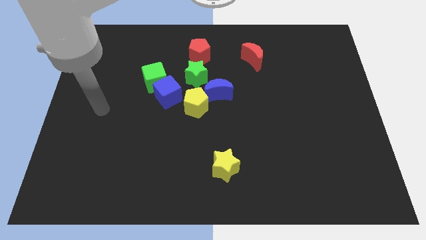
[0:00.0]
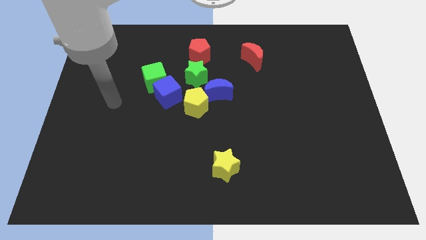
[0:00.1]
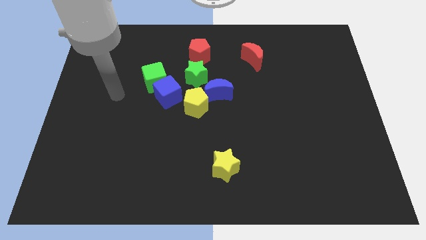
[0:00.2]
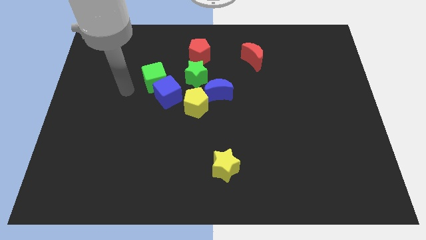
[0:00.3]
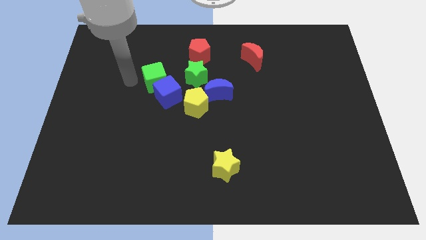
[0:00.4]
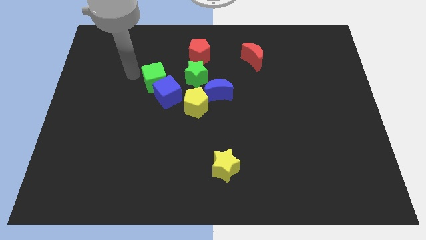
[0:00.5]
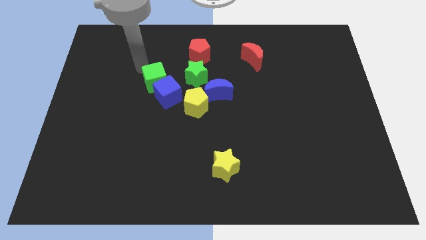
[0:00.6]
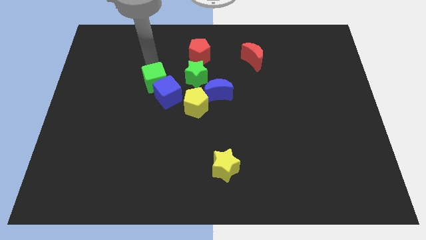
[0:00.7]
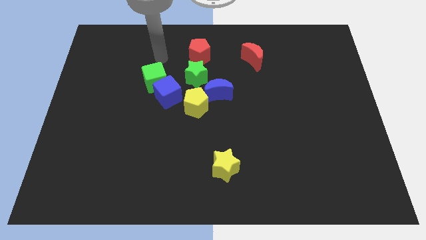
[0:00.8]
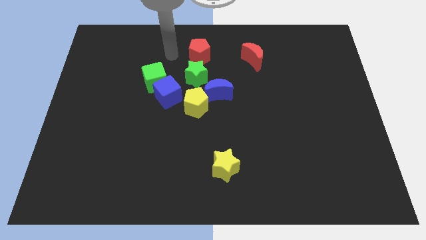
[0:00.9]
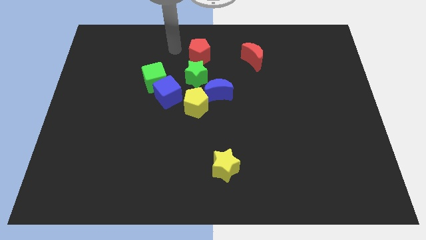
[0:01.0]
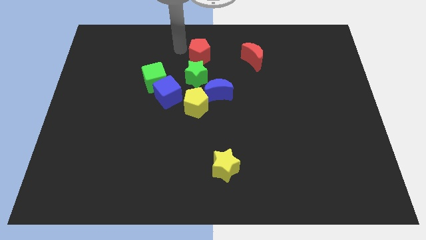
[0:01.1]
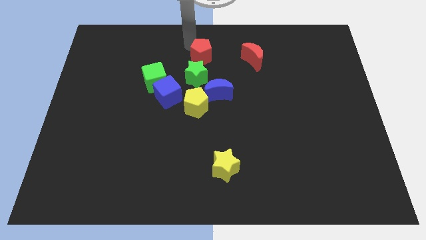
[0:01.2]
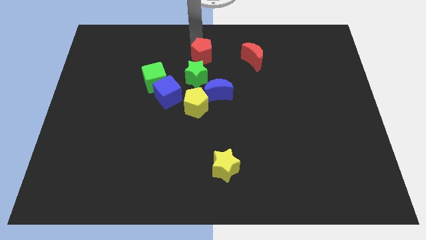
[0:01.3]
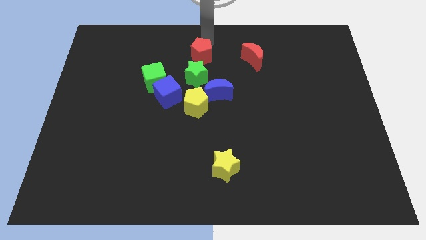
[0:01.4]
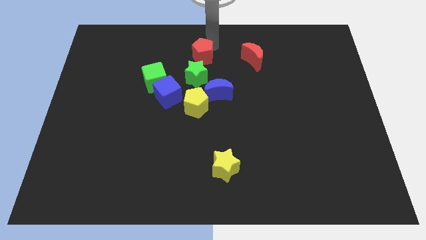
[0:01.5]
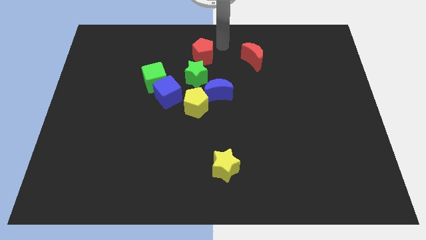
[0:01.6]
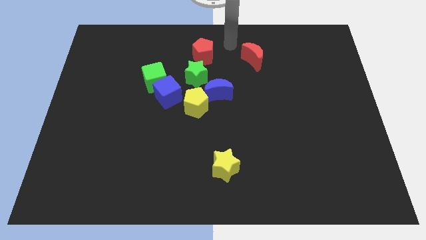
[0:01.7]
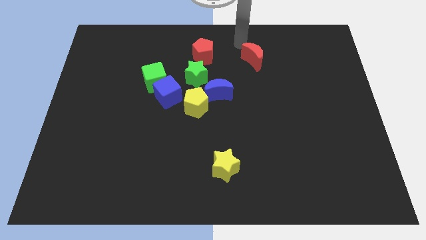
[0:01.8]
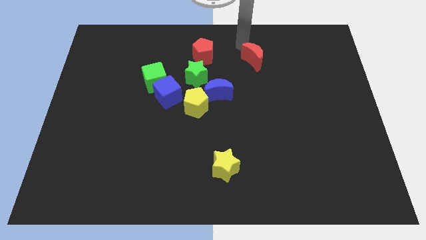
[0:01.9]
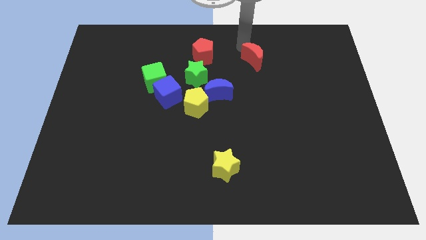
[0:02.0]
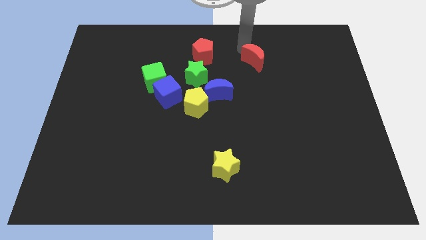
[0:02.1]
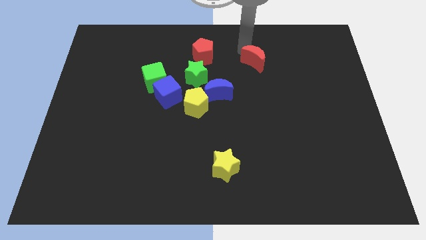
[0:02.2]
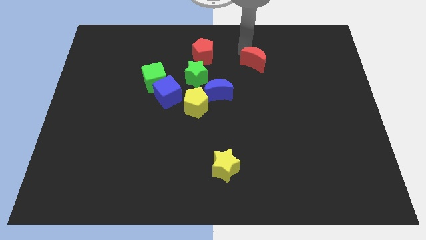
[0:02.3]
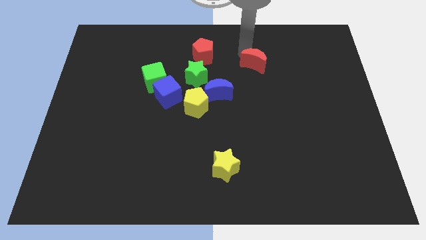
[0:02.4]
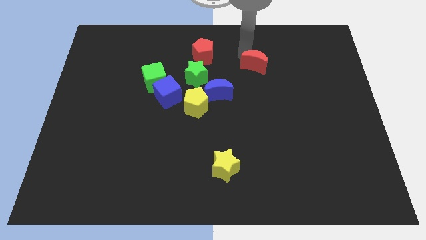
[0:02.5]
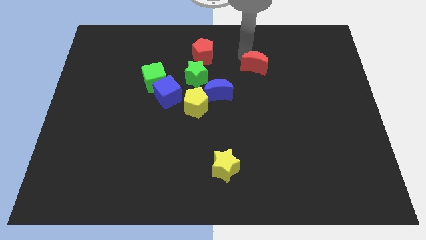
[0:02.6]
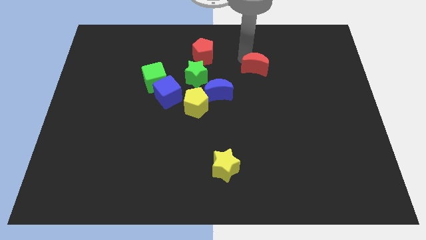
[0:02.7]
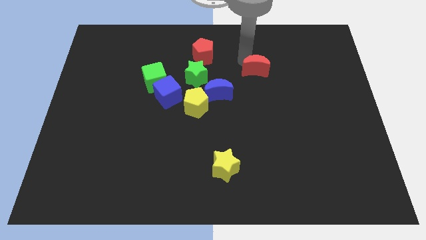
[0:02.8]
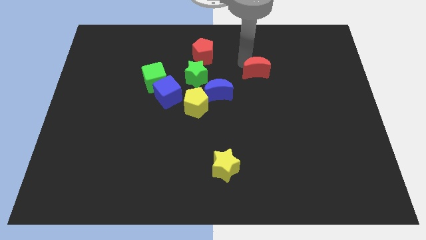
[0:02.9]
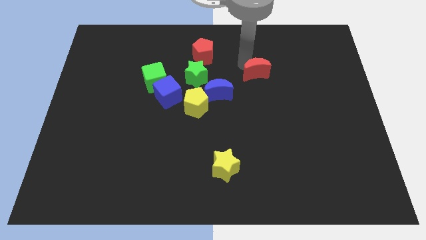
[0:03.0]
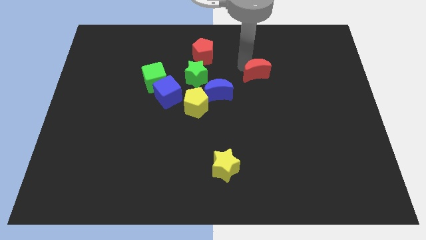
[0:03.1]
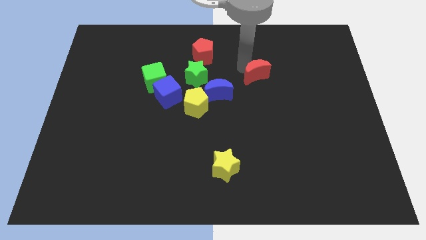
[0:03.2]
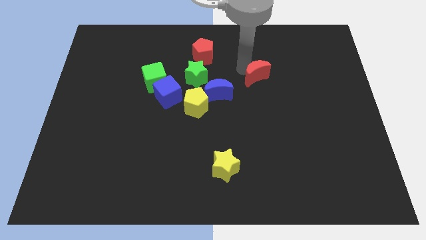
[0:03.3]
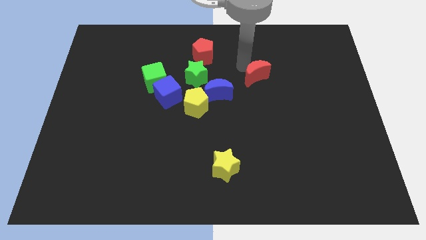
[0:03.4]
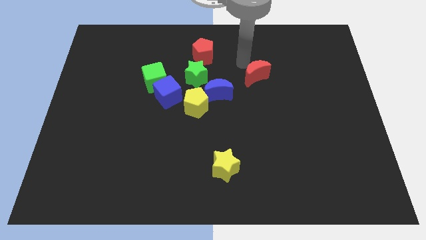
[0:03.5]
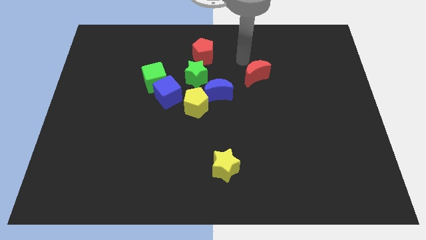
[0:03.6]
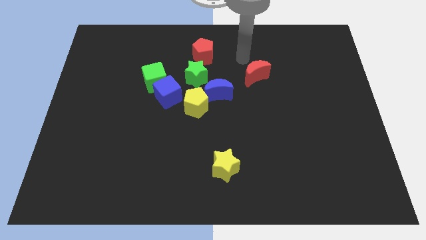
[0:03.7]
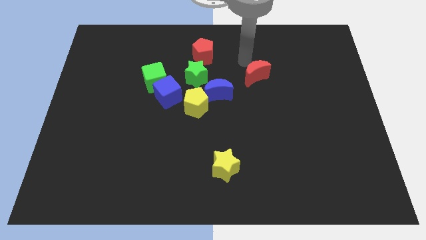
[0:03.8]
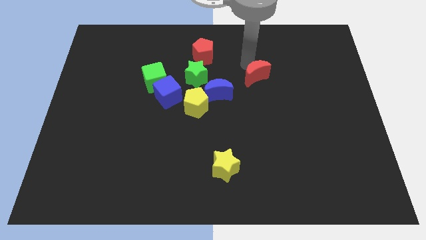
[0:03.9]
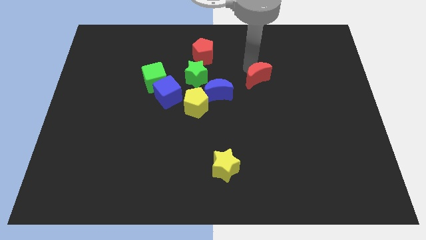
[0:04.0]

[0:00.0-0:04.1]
slide the red moon a bit downwards

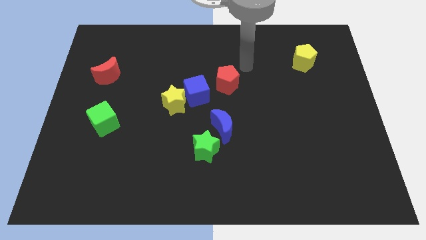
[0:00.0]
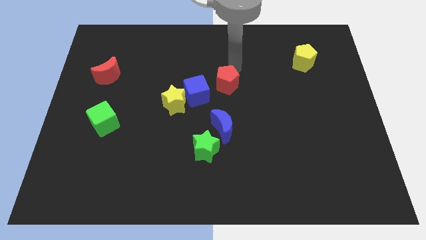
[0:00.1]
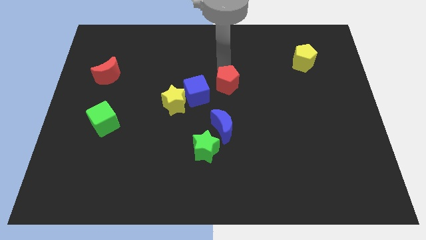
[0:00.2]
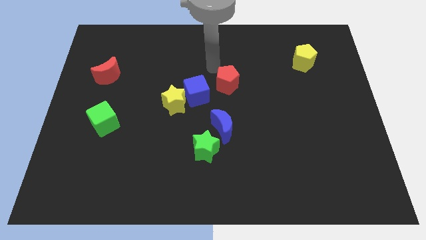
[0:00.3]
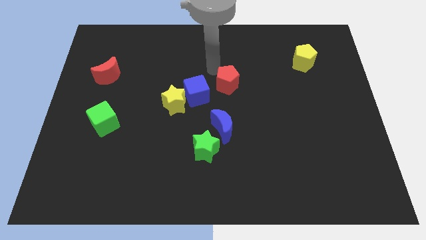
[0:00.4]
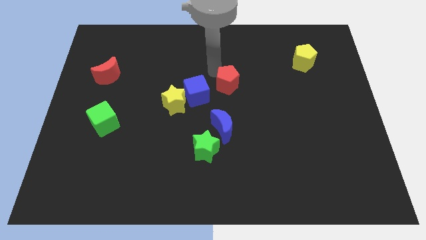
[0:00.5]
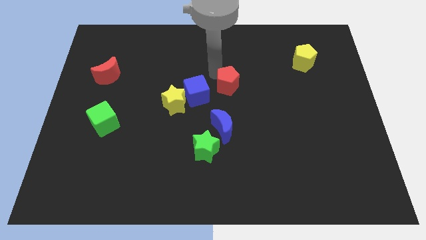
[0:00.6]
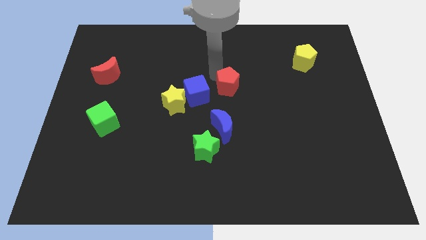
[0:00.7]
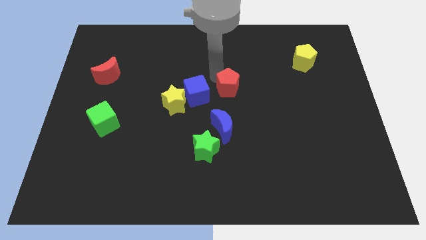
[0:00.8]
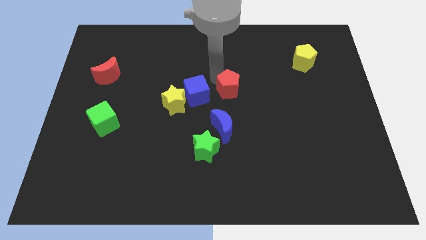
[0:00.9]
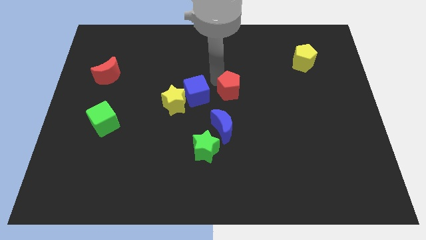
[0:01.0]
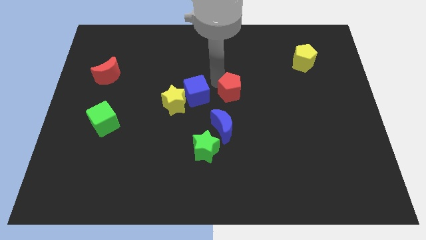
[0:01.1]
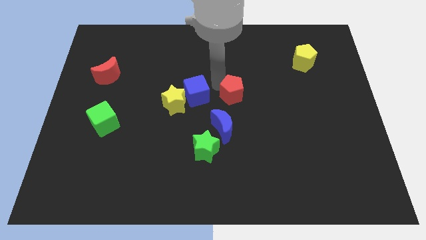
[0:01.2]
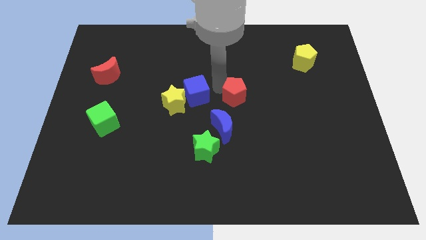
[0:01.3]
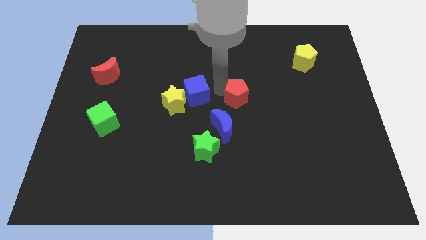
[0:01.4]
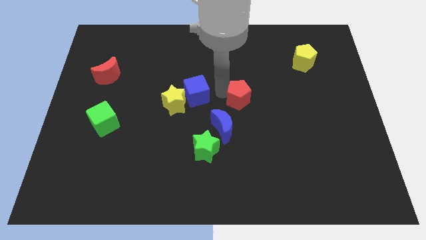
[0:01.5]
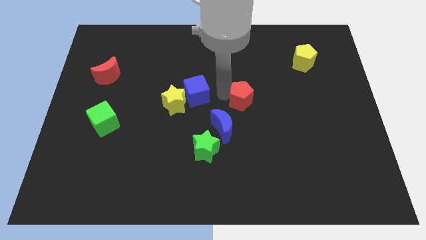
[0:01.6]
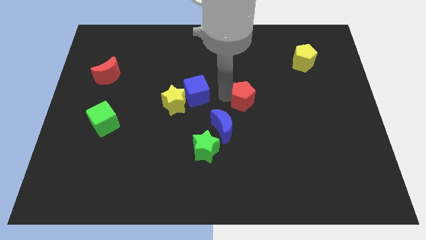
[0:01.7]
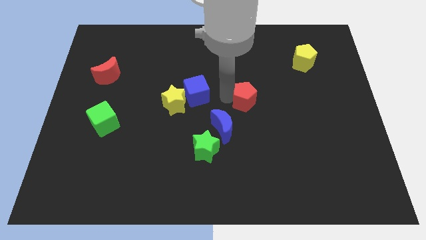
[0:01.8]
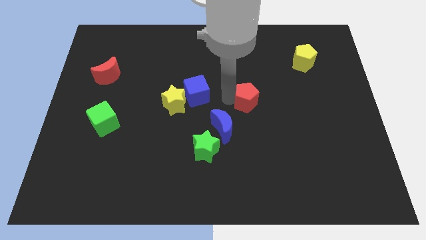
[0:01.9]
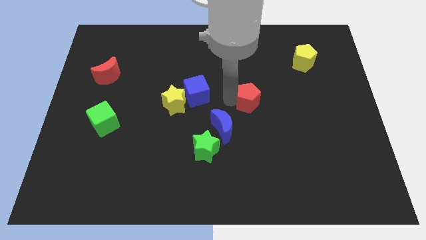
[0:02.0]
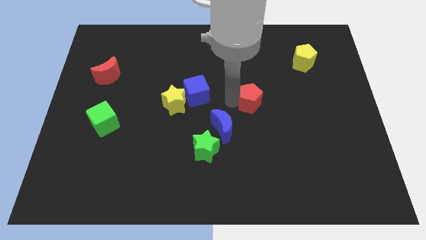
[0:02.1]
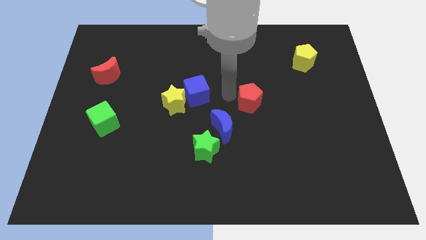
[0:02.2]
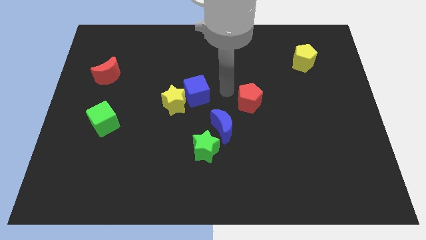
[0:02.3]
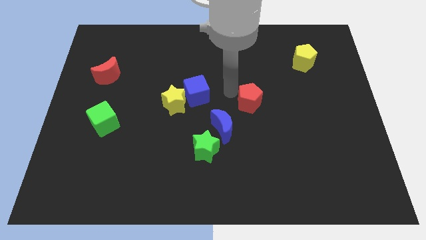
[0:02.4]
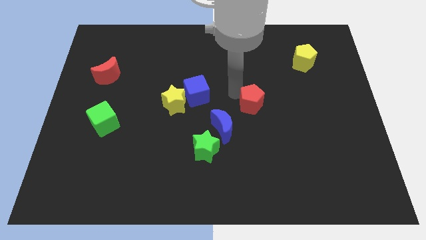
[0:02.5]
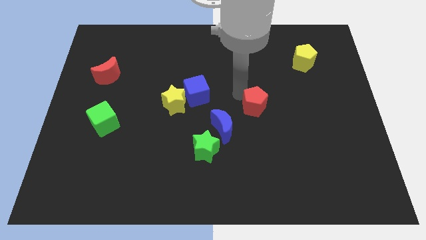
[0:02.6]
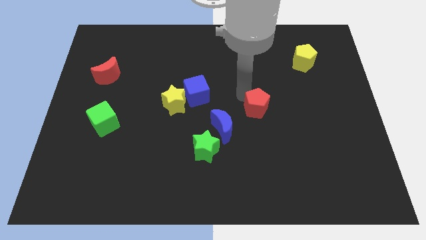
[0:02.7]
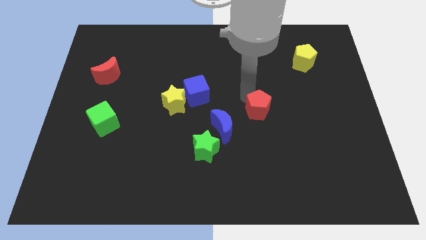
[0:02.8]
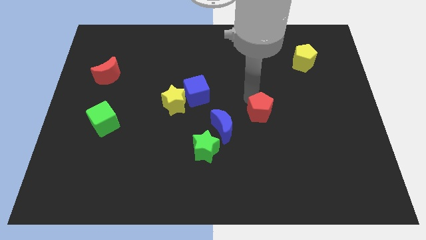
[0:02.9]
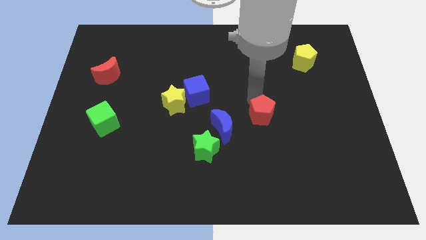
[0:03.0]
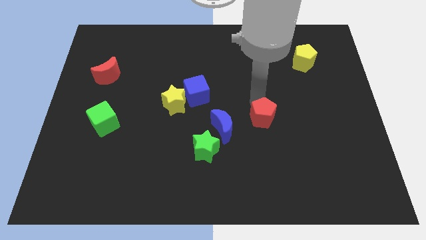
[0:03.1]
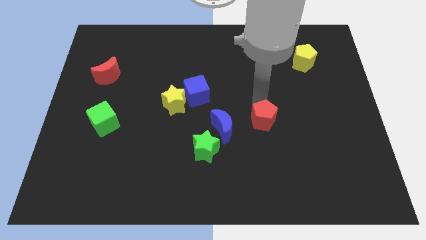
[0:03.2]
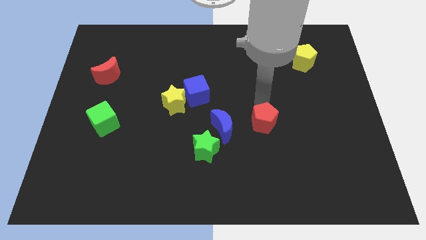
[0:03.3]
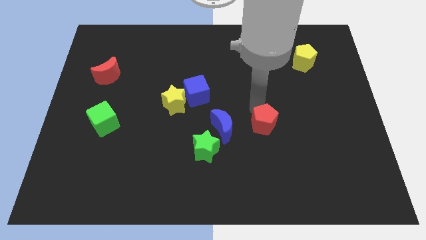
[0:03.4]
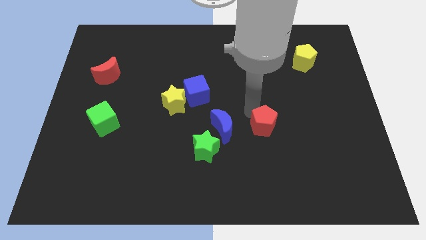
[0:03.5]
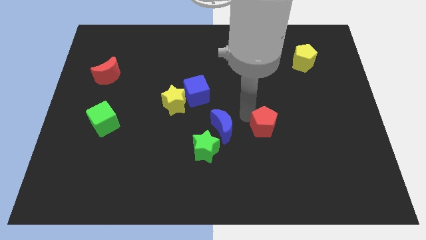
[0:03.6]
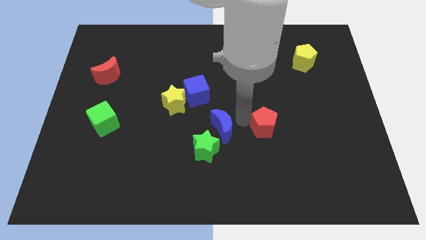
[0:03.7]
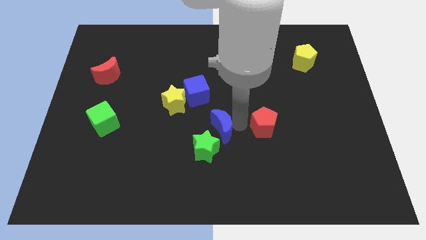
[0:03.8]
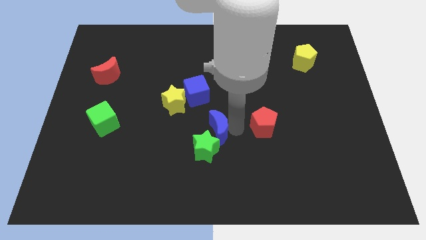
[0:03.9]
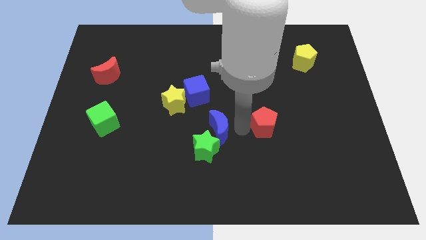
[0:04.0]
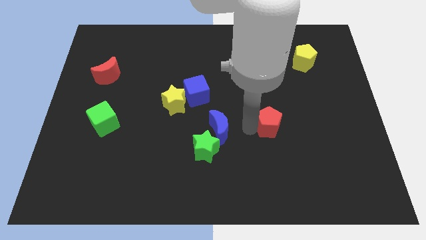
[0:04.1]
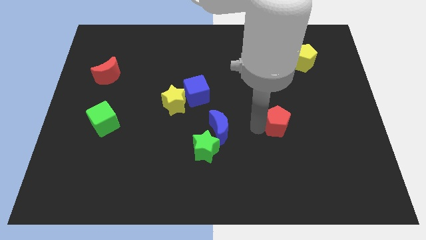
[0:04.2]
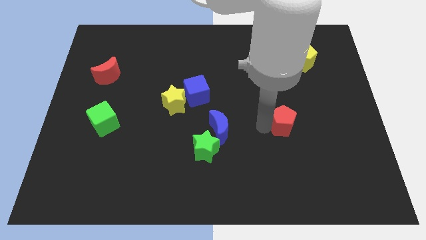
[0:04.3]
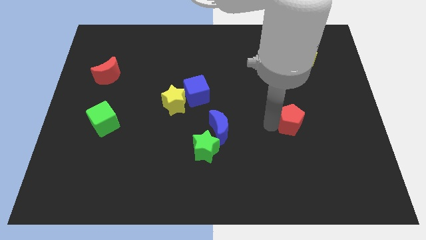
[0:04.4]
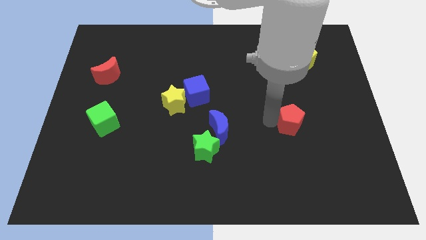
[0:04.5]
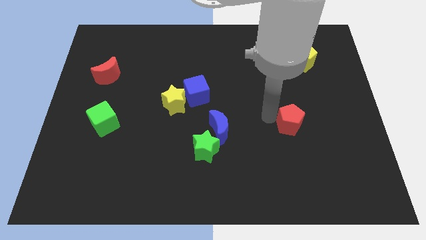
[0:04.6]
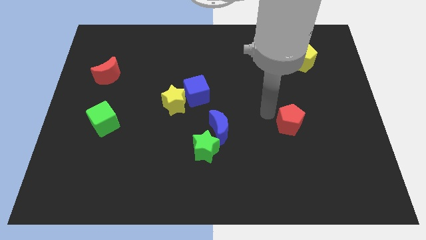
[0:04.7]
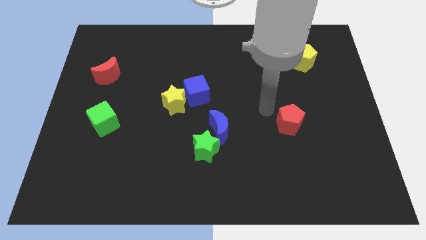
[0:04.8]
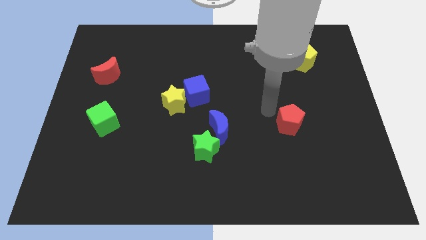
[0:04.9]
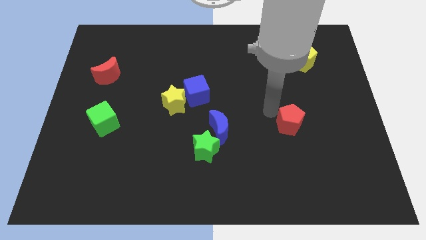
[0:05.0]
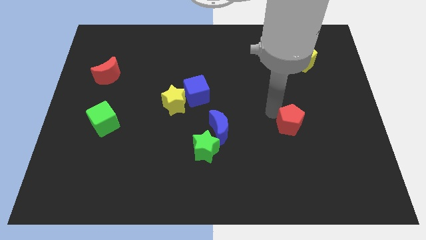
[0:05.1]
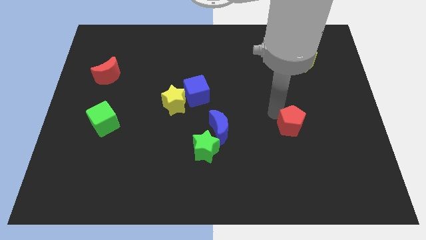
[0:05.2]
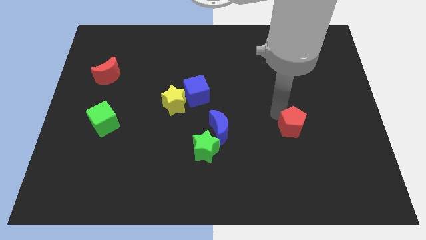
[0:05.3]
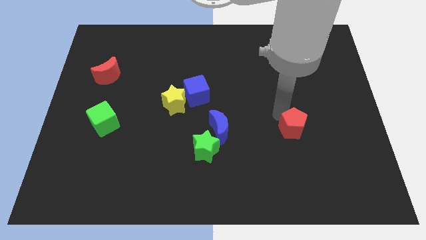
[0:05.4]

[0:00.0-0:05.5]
slide the red pentagon diagonally down and to the right
